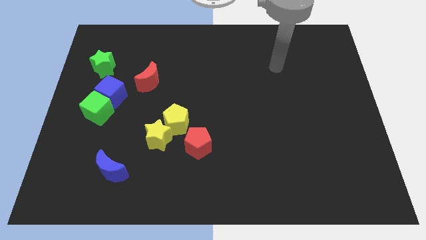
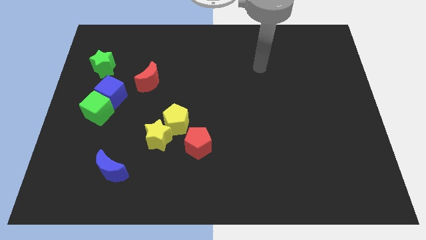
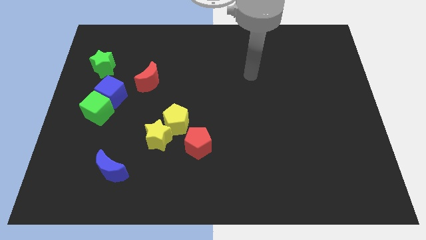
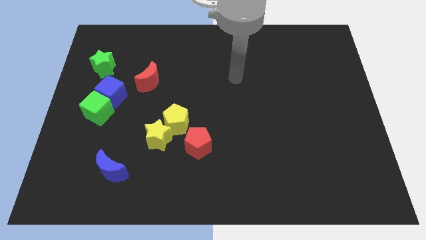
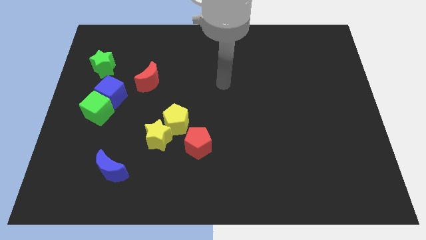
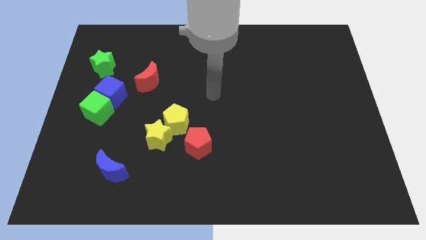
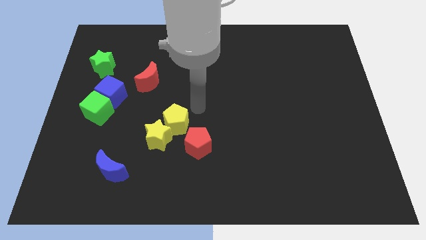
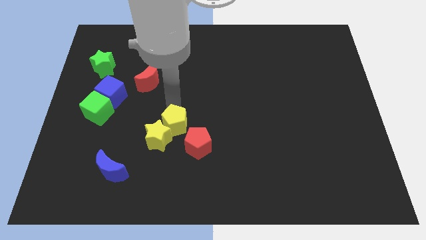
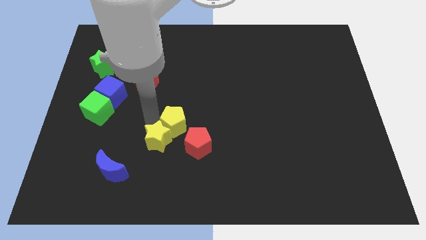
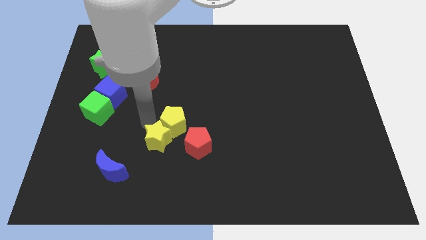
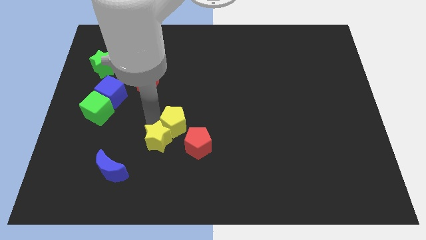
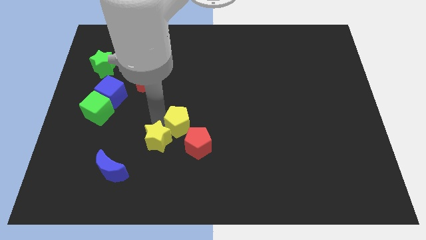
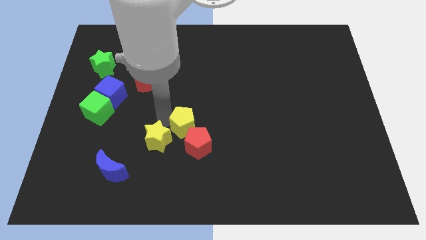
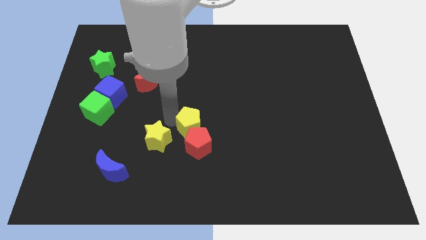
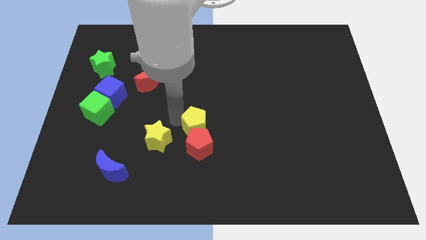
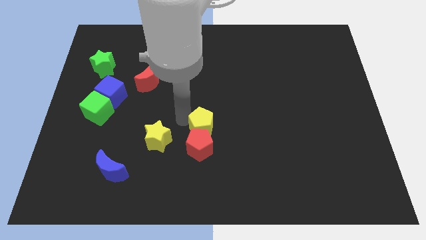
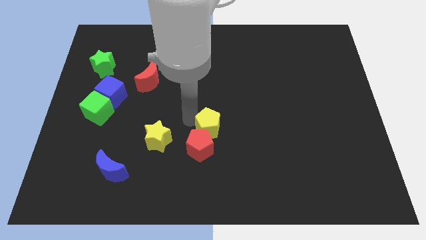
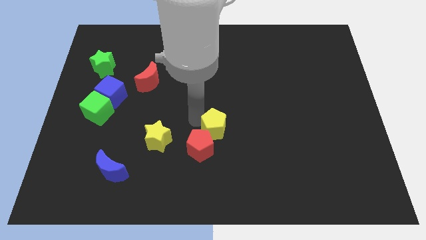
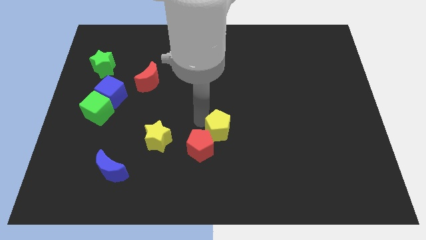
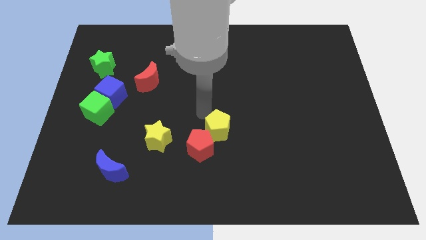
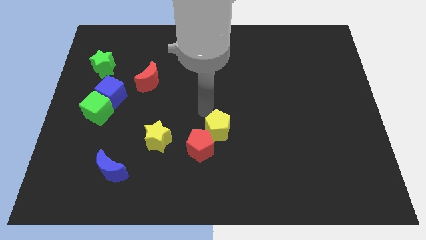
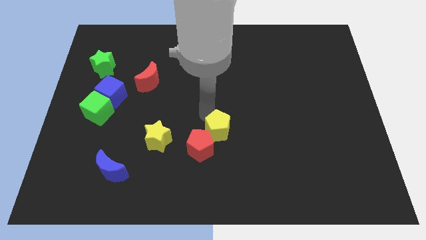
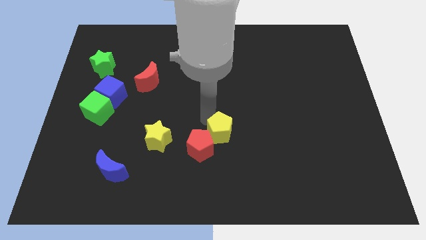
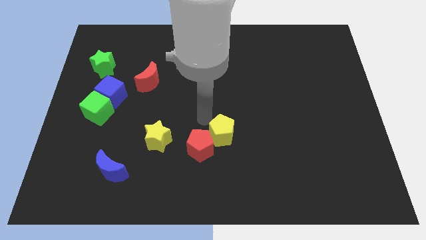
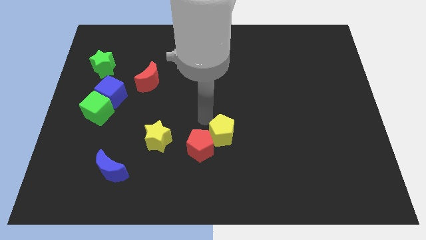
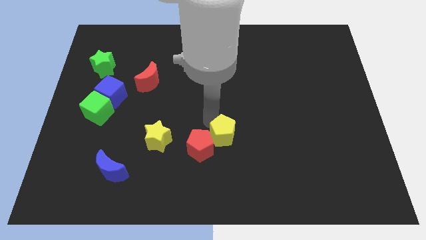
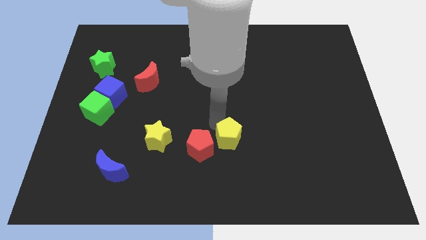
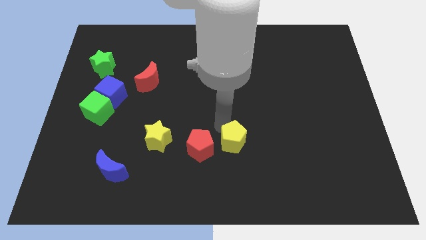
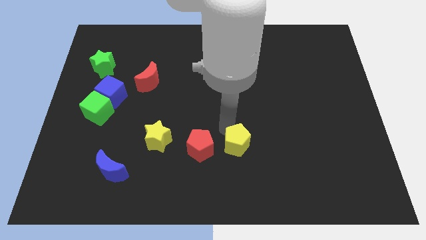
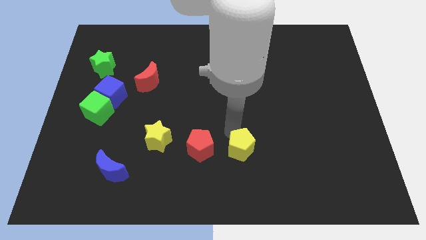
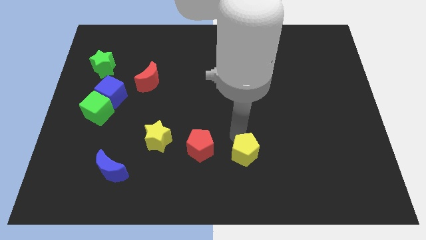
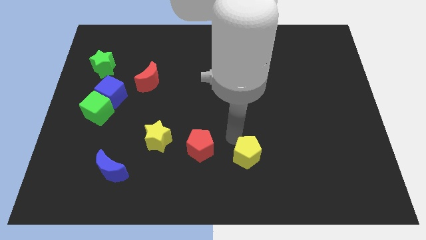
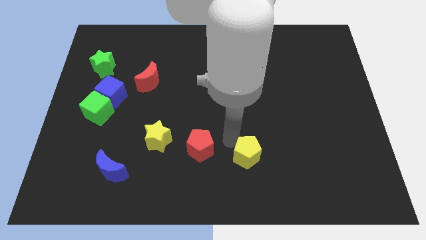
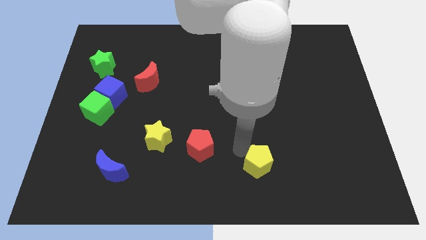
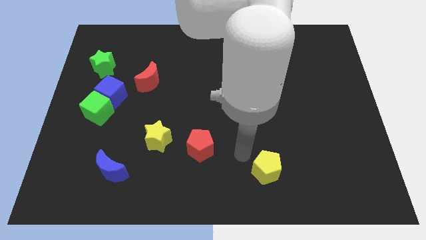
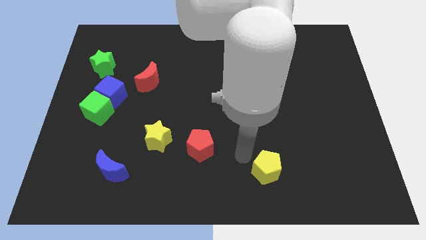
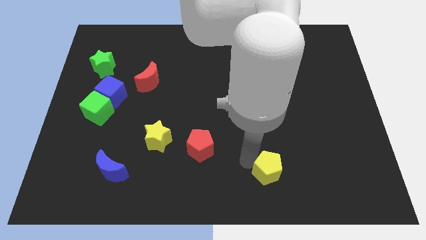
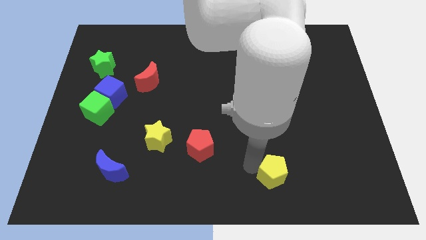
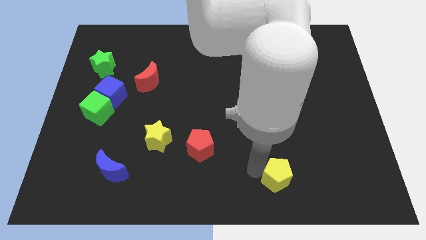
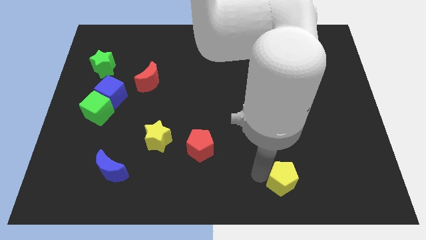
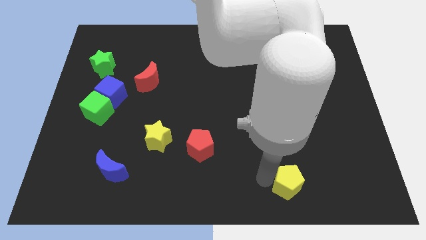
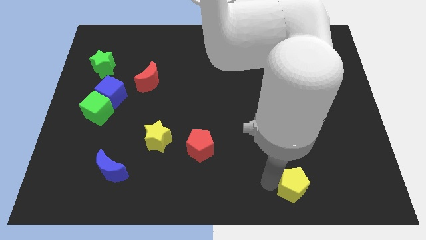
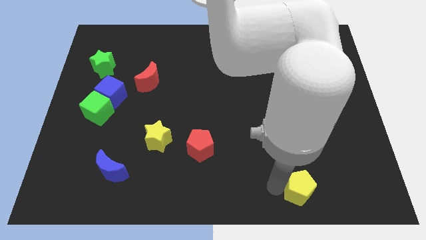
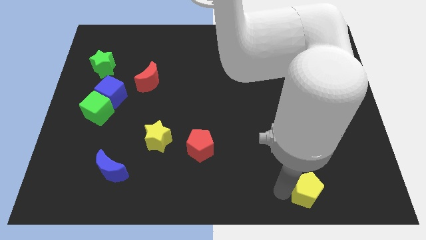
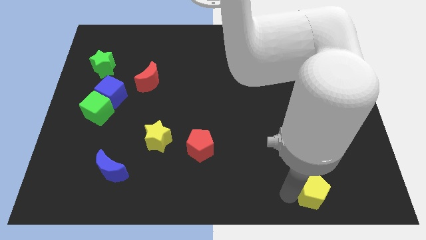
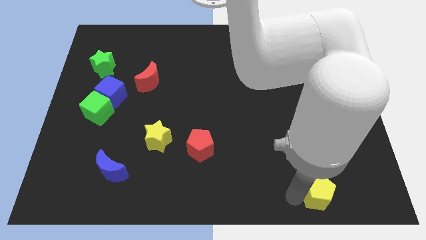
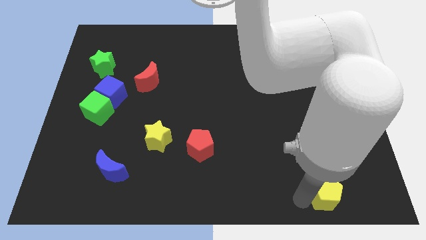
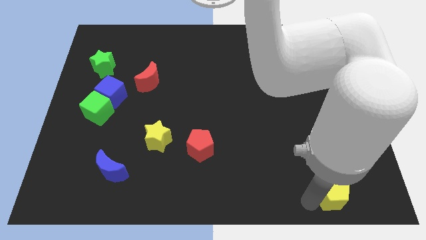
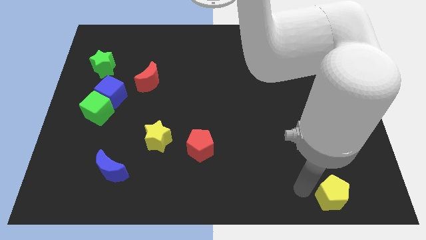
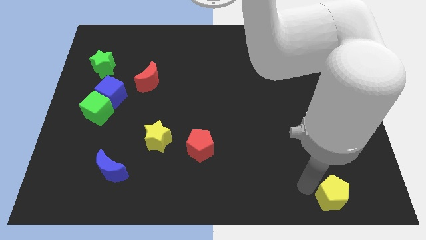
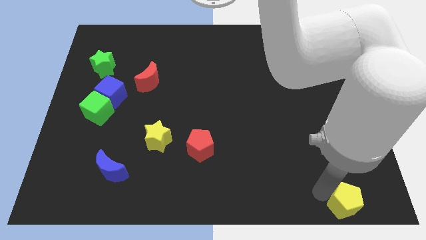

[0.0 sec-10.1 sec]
put the yellow pentagon to the bottom right

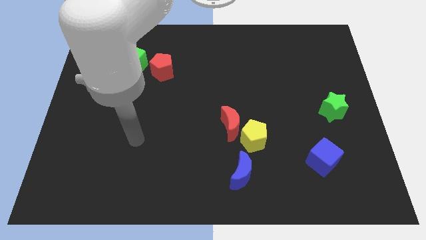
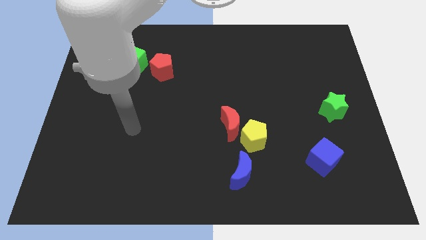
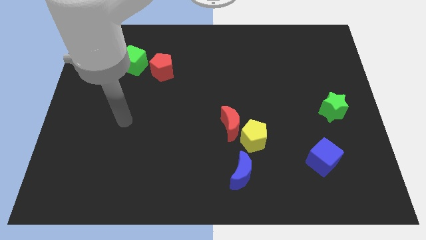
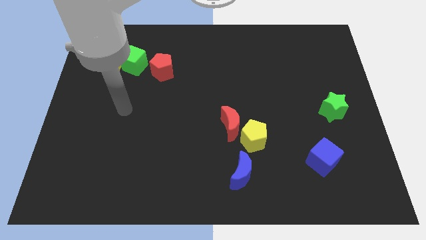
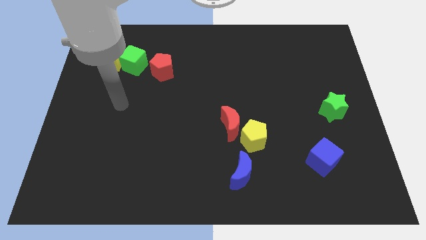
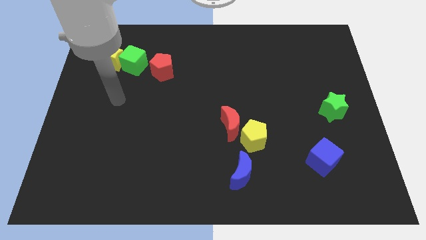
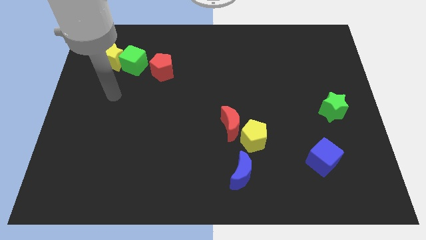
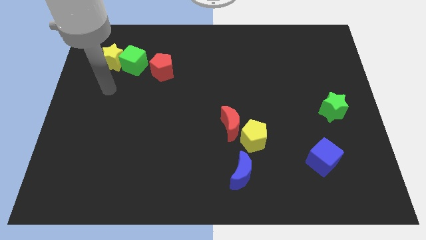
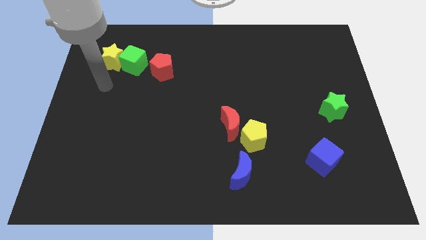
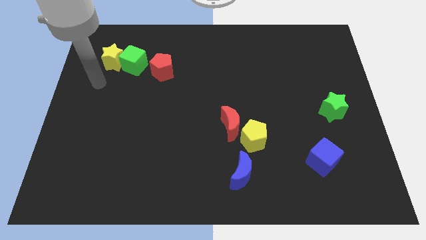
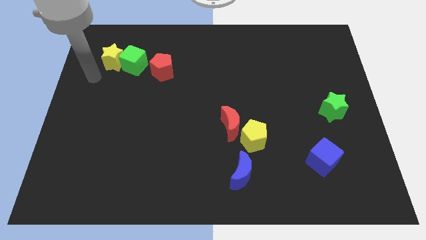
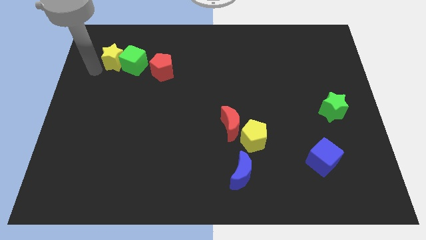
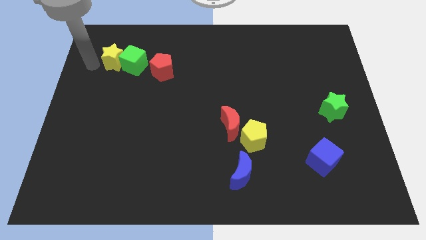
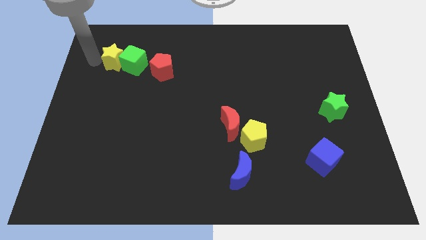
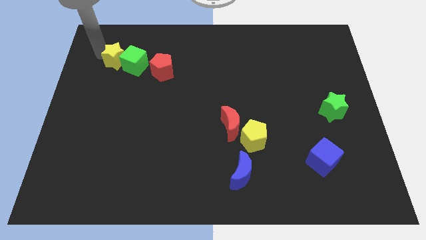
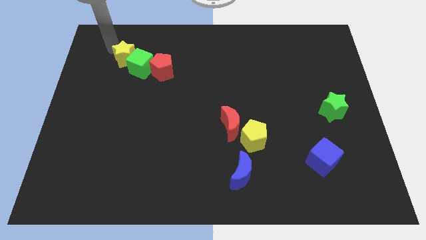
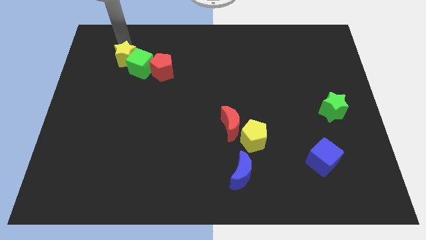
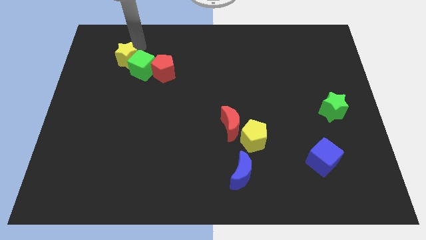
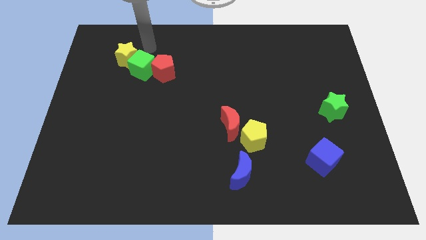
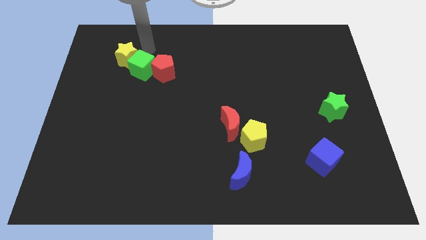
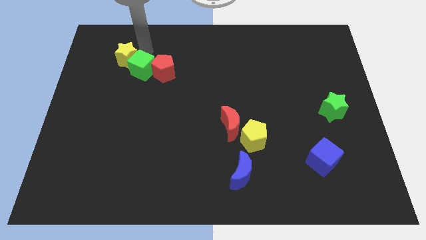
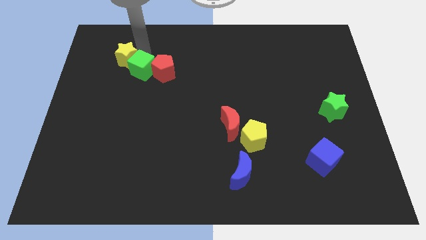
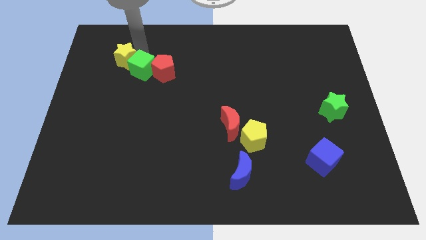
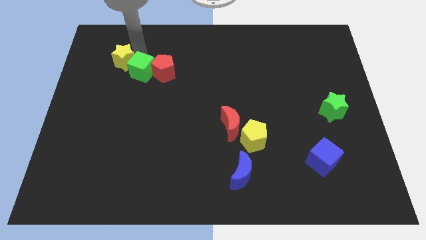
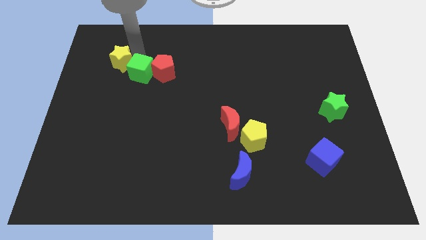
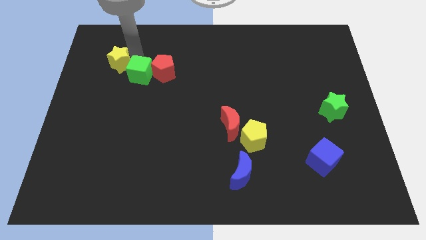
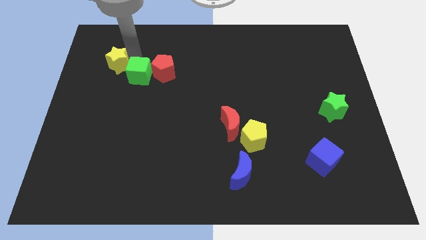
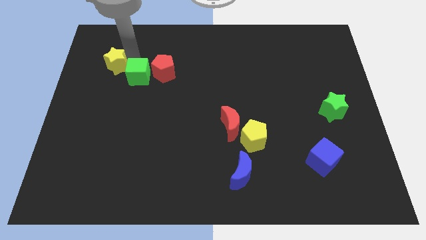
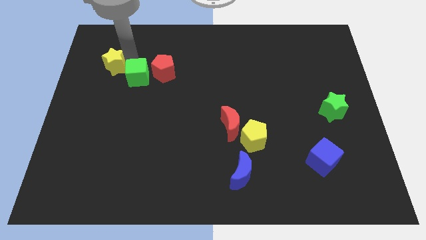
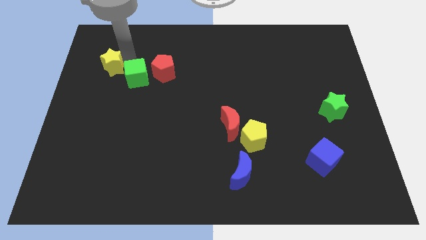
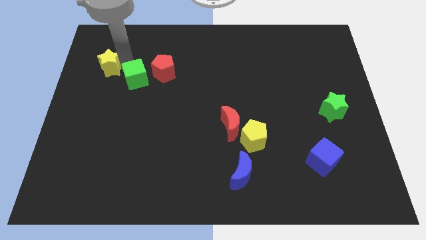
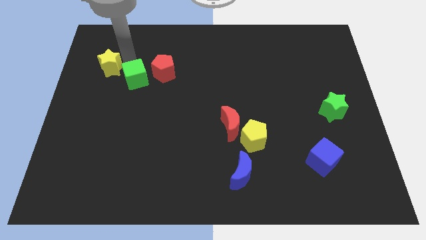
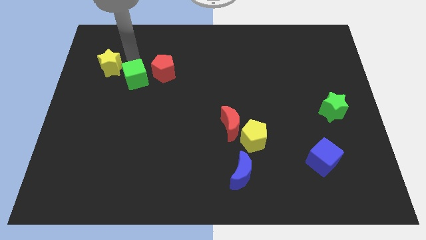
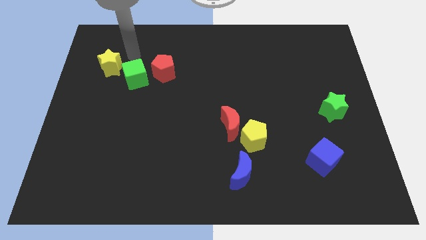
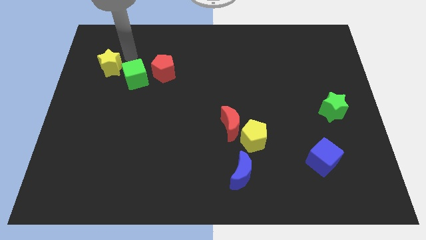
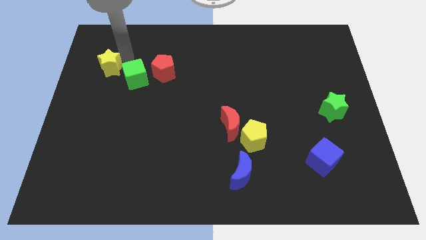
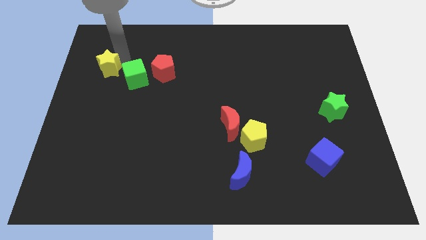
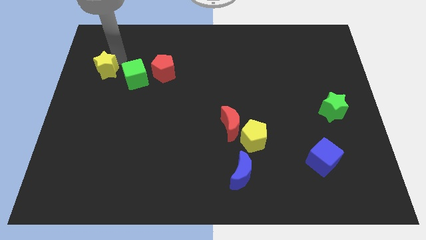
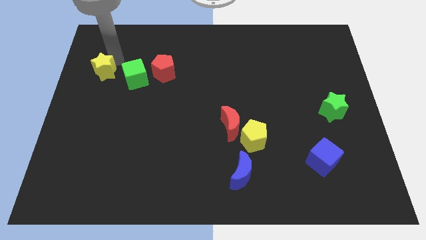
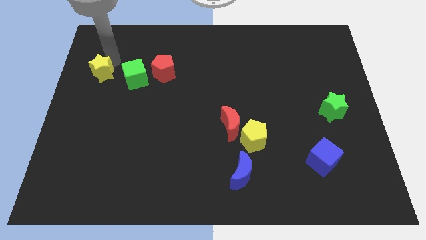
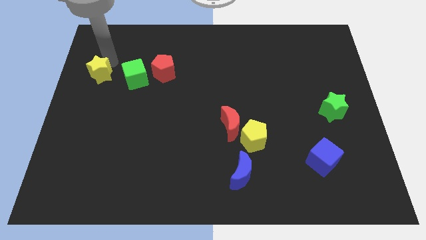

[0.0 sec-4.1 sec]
push the yellow star to the left side of the board
